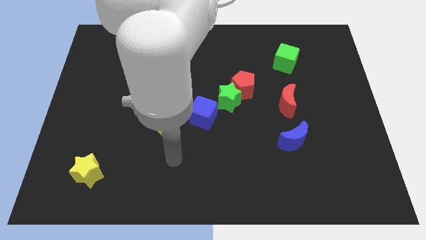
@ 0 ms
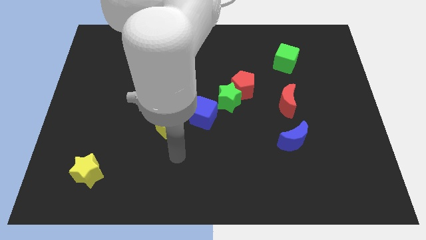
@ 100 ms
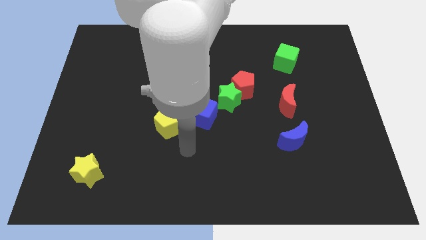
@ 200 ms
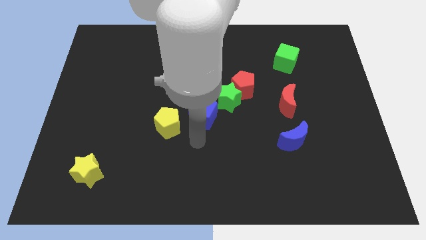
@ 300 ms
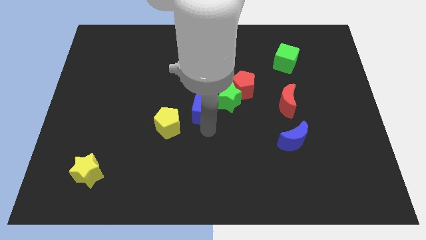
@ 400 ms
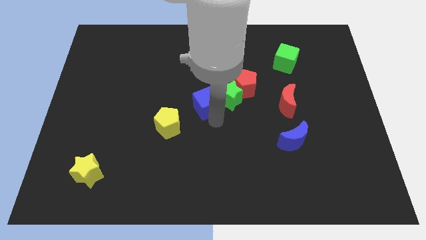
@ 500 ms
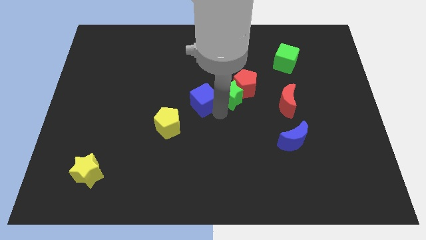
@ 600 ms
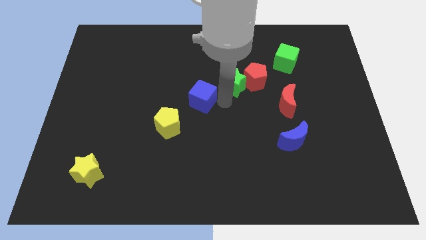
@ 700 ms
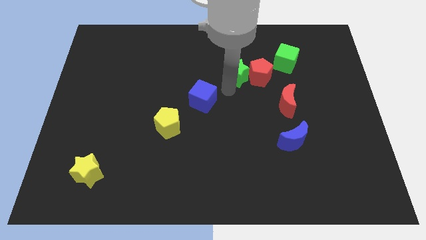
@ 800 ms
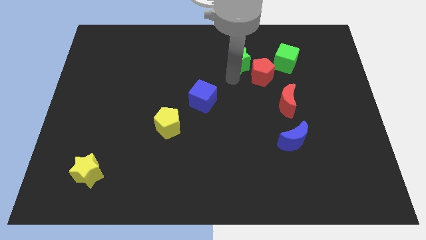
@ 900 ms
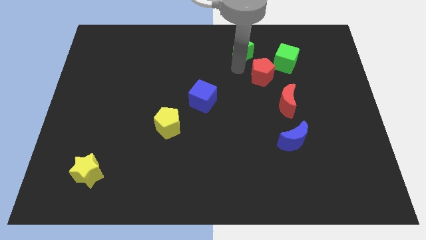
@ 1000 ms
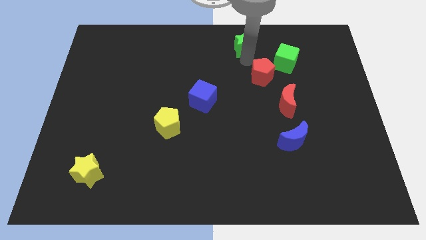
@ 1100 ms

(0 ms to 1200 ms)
pull the red pentagon apart from the green star

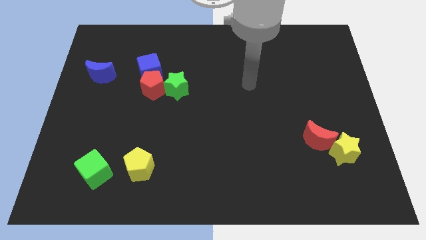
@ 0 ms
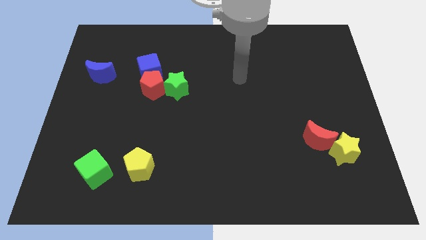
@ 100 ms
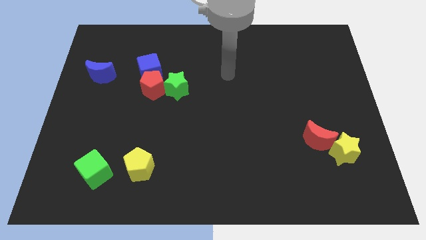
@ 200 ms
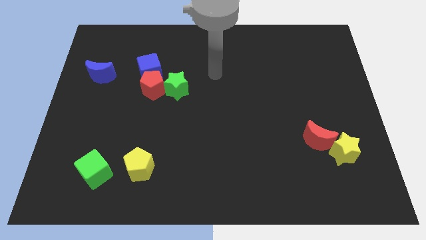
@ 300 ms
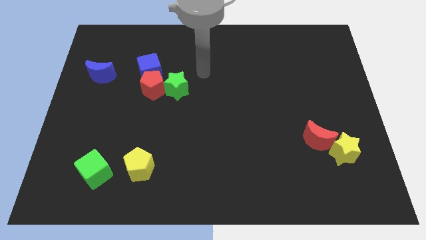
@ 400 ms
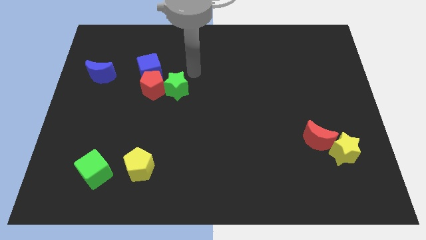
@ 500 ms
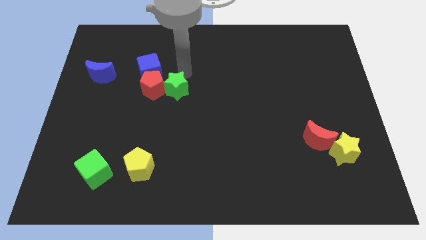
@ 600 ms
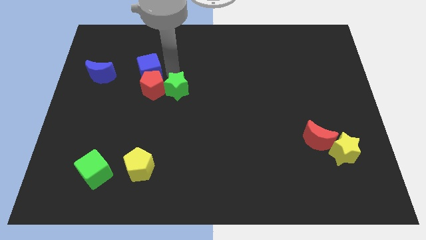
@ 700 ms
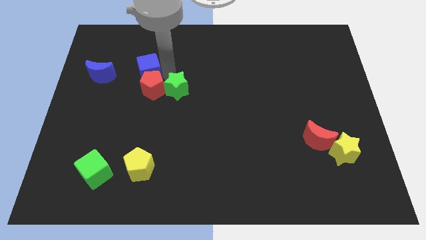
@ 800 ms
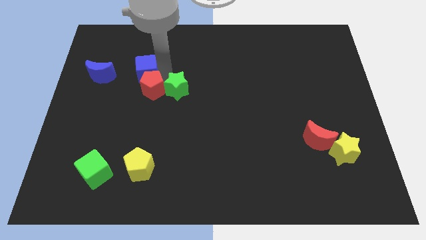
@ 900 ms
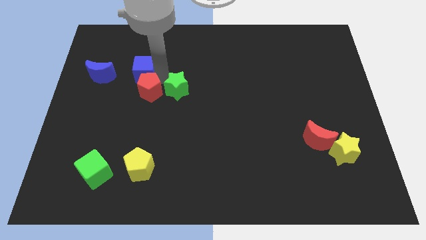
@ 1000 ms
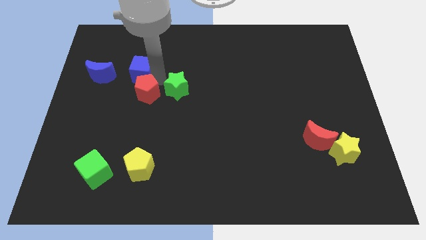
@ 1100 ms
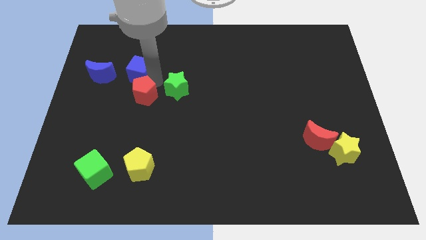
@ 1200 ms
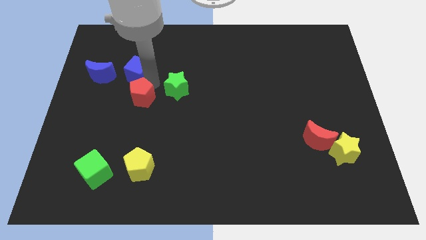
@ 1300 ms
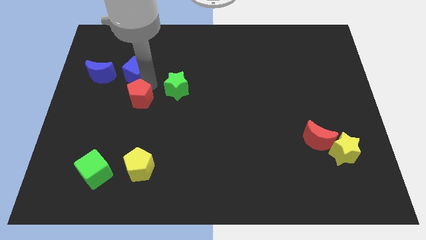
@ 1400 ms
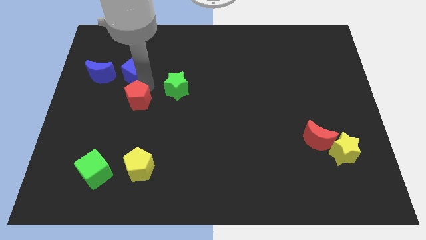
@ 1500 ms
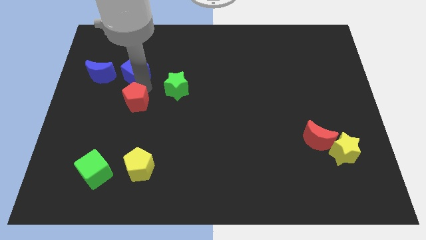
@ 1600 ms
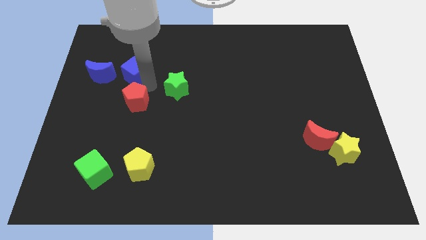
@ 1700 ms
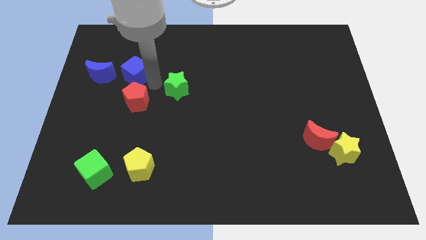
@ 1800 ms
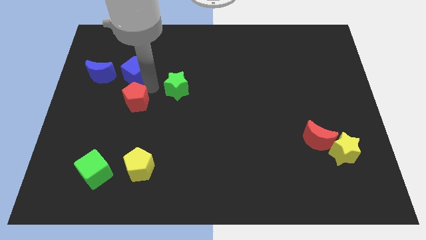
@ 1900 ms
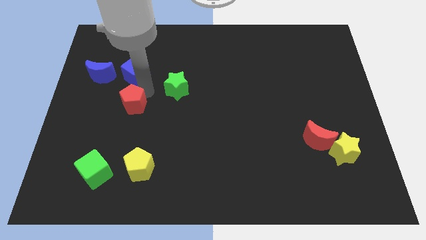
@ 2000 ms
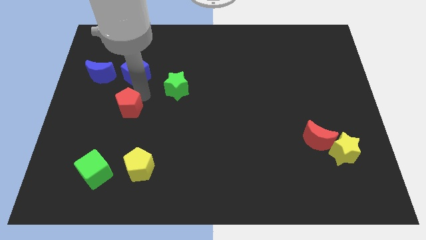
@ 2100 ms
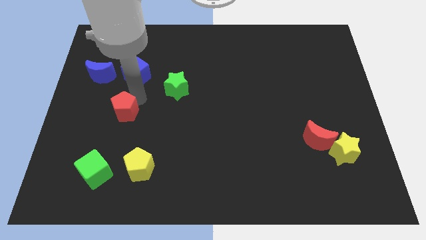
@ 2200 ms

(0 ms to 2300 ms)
separate the red pentagon from the green star and blue cube

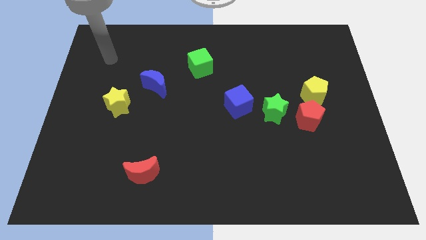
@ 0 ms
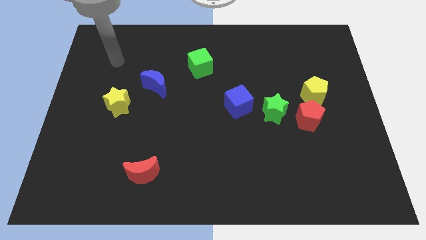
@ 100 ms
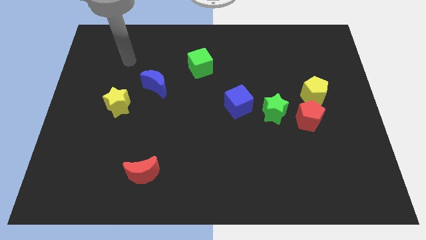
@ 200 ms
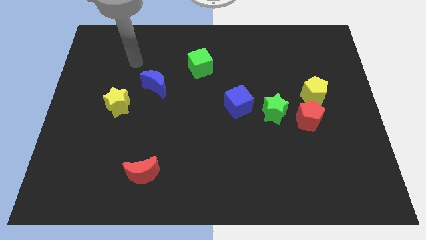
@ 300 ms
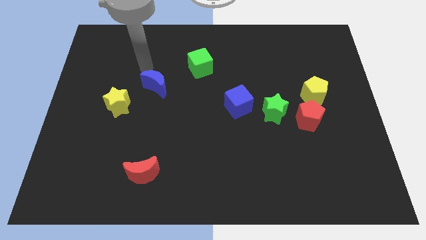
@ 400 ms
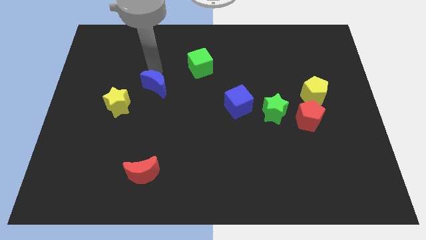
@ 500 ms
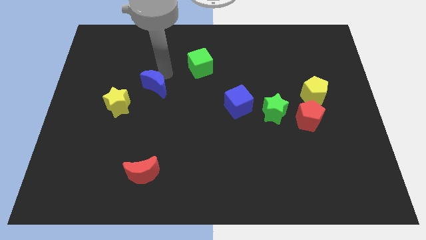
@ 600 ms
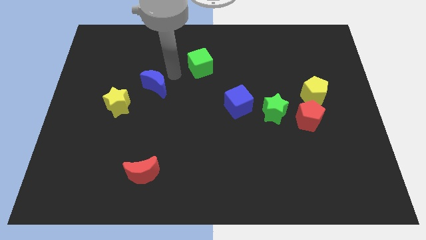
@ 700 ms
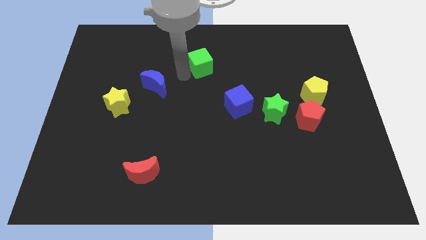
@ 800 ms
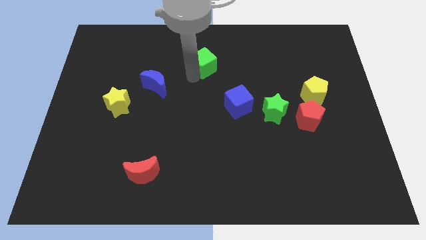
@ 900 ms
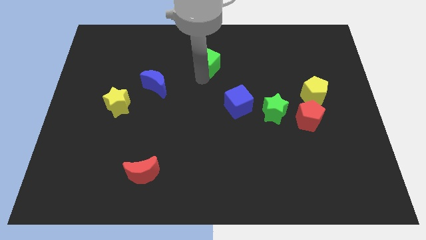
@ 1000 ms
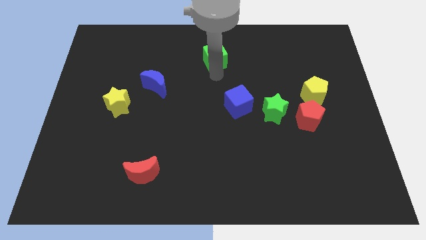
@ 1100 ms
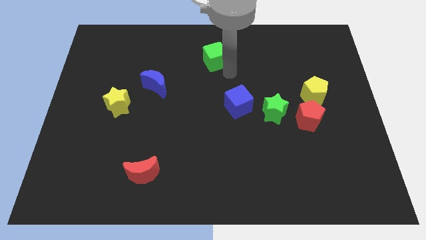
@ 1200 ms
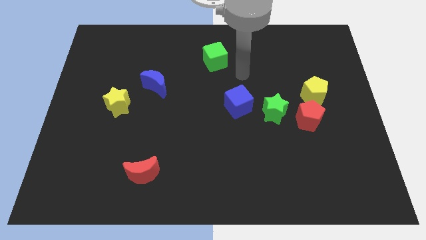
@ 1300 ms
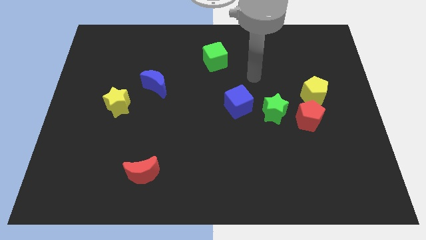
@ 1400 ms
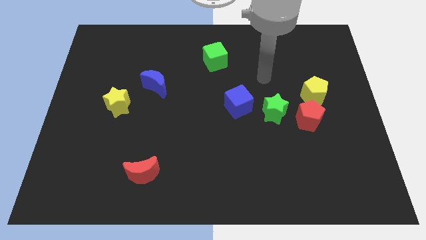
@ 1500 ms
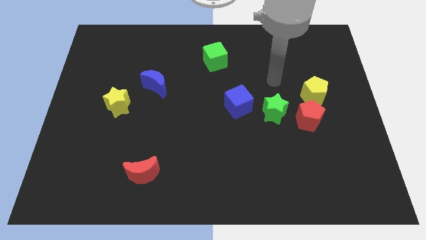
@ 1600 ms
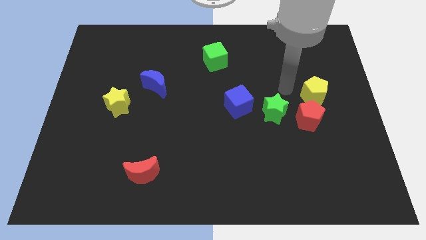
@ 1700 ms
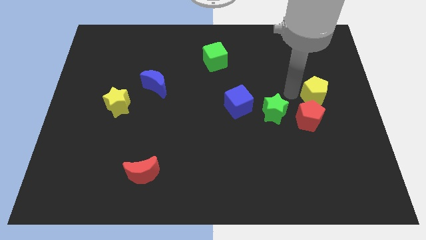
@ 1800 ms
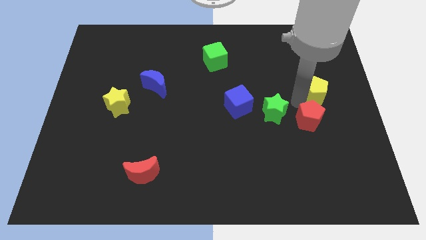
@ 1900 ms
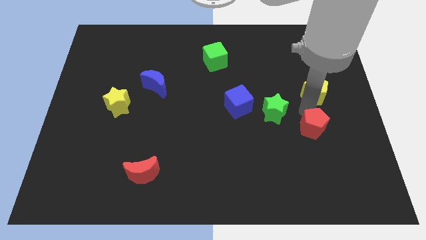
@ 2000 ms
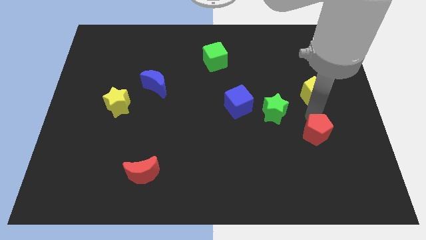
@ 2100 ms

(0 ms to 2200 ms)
move the yellow pentagon away from the red pentagon

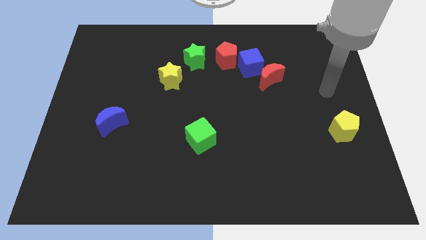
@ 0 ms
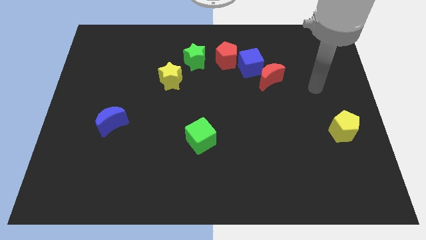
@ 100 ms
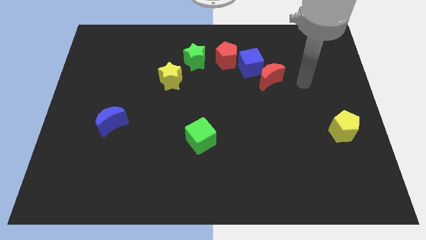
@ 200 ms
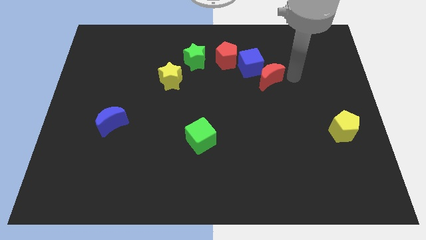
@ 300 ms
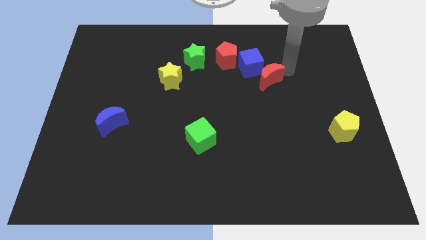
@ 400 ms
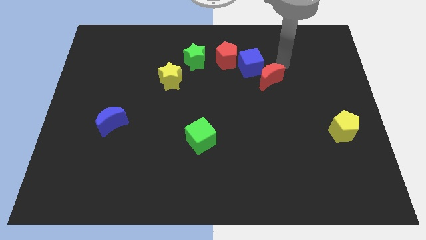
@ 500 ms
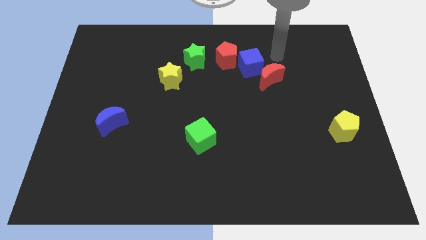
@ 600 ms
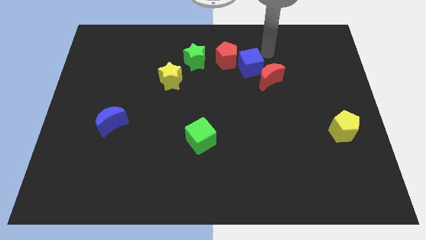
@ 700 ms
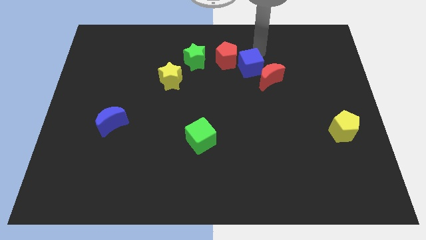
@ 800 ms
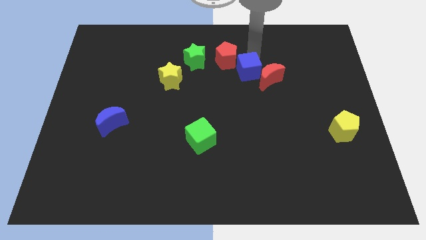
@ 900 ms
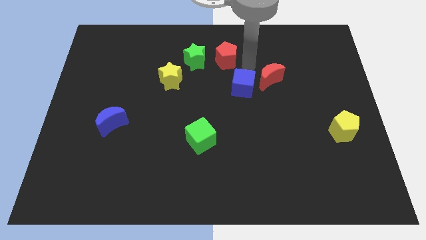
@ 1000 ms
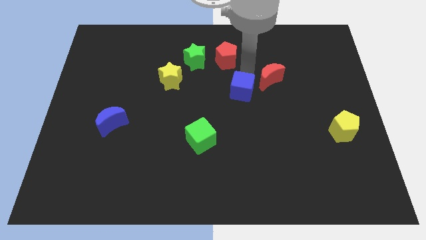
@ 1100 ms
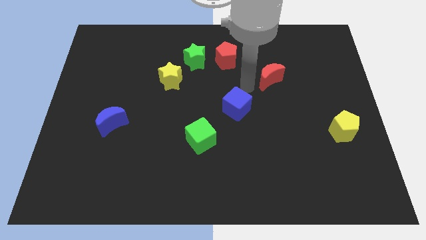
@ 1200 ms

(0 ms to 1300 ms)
move the red moon away from the blue cube

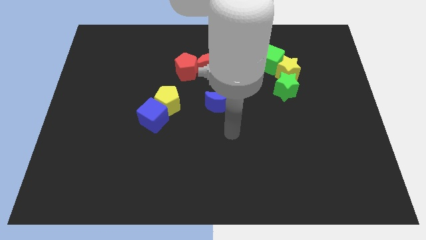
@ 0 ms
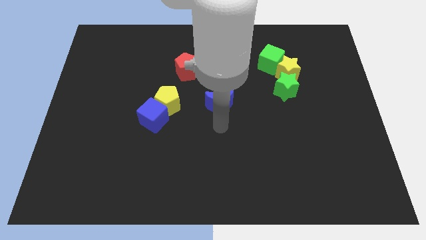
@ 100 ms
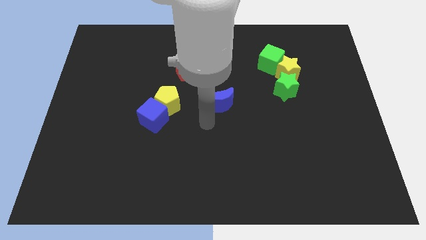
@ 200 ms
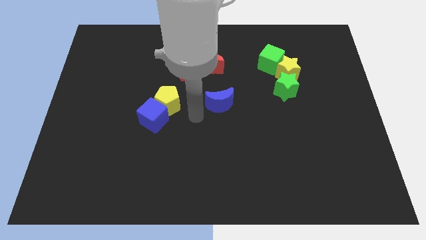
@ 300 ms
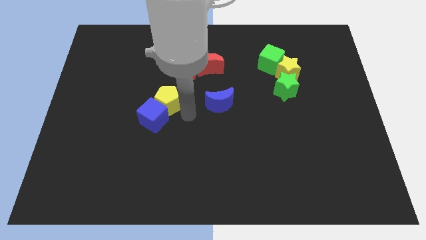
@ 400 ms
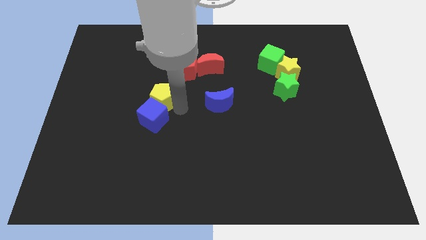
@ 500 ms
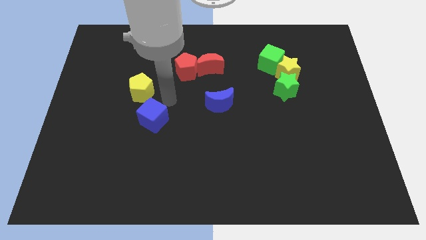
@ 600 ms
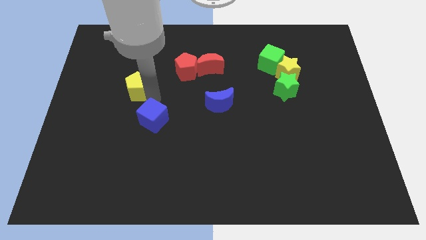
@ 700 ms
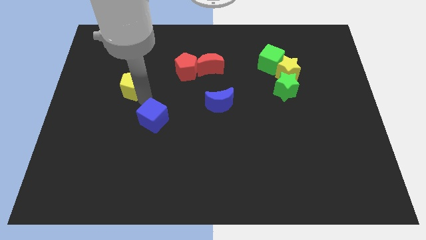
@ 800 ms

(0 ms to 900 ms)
separate the blue cube from the yellow pentagon

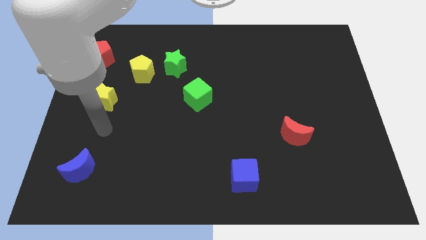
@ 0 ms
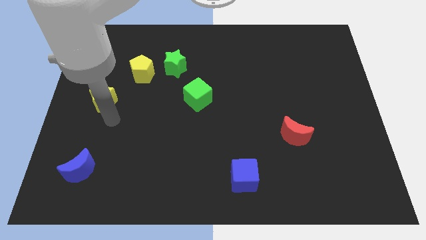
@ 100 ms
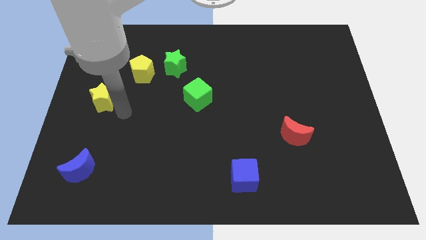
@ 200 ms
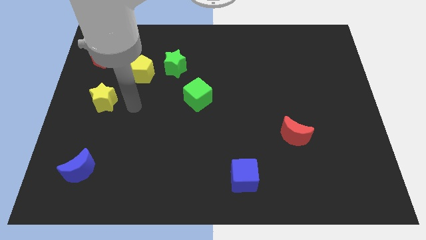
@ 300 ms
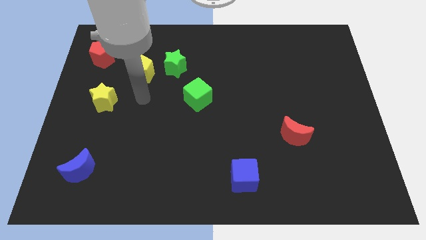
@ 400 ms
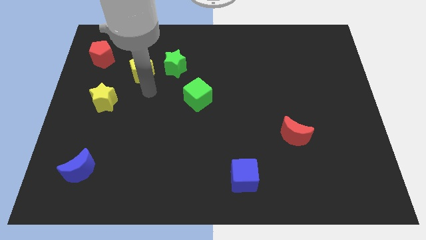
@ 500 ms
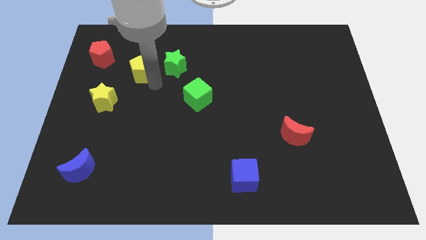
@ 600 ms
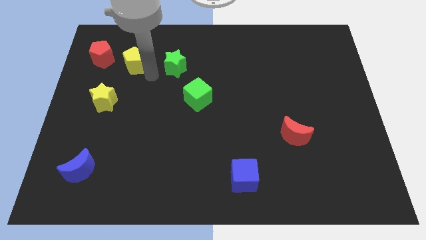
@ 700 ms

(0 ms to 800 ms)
move the green star away from the yellow pentagon

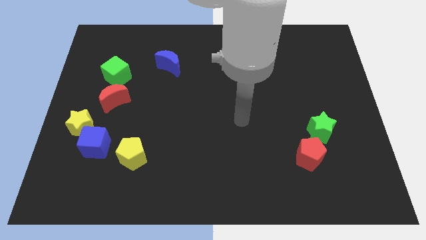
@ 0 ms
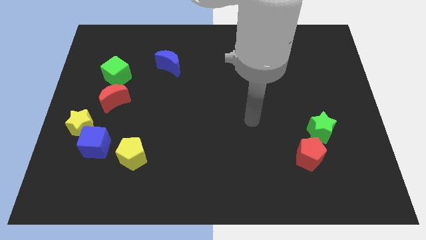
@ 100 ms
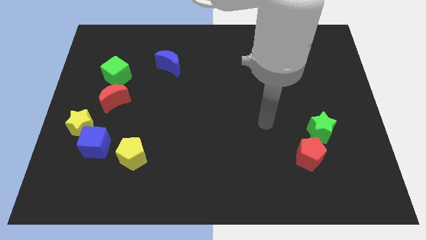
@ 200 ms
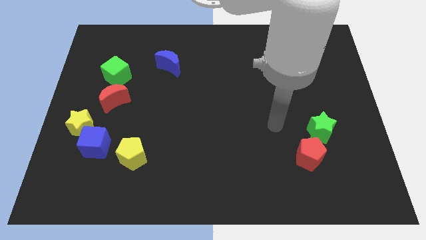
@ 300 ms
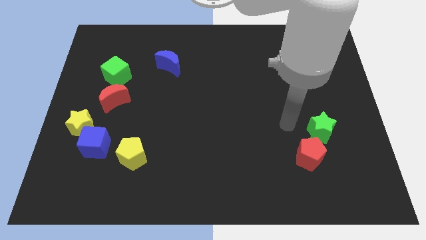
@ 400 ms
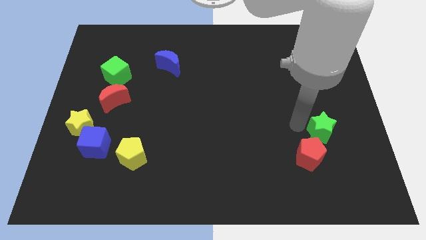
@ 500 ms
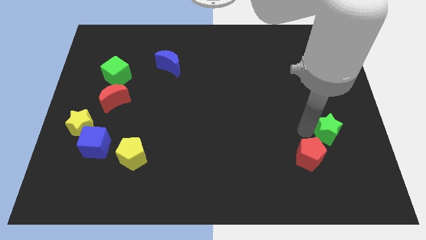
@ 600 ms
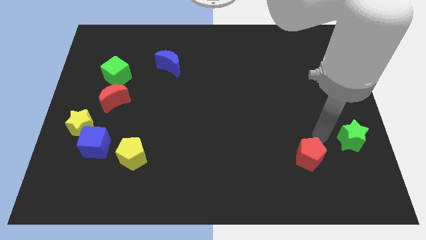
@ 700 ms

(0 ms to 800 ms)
move the red pentagon away from the green star
